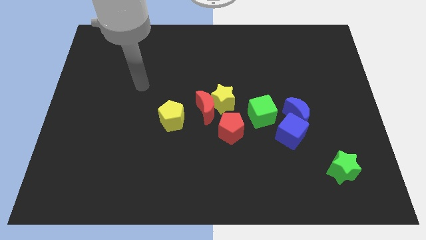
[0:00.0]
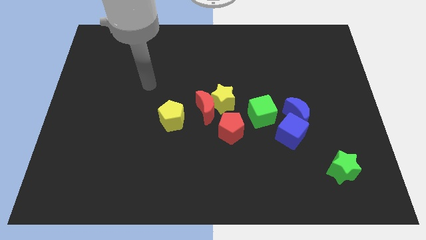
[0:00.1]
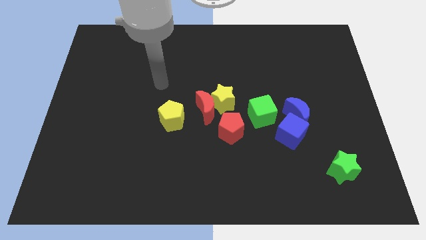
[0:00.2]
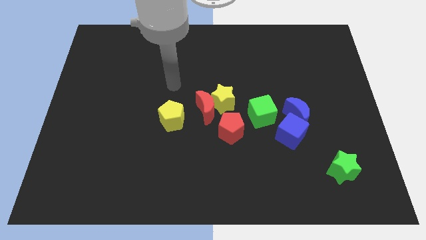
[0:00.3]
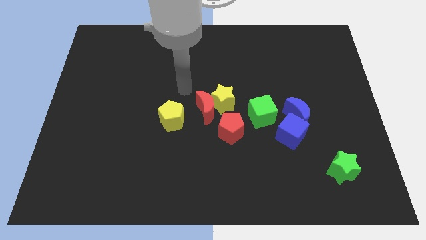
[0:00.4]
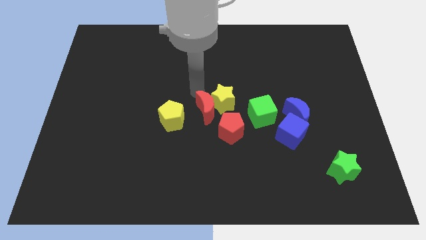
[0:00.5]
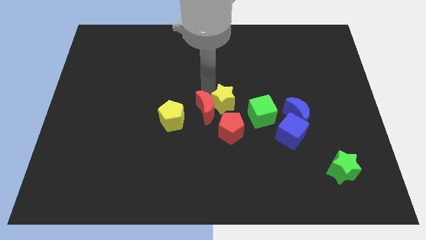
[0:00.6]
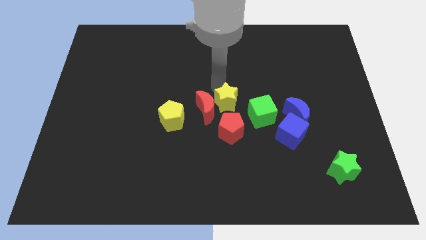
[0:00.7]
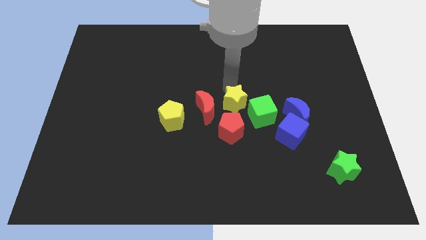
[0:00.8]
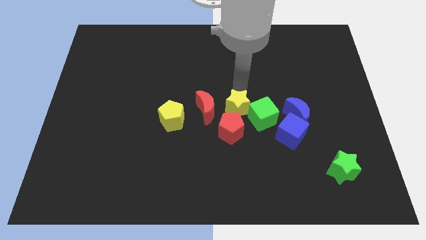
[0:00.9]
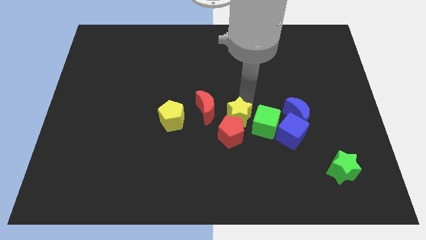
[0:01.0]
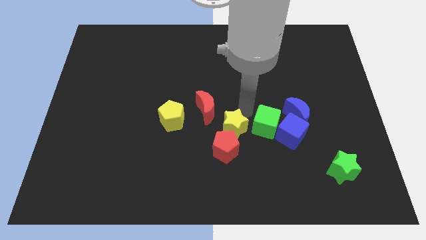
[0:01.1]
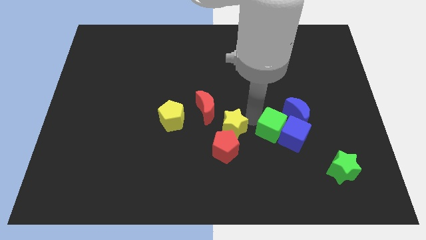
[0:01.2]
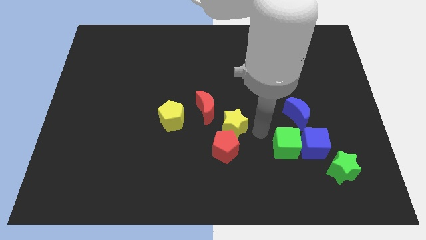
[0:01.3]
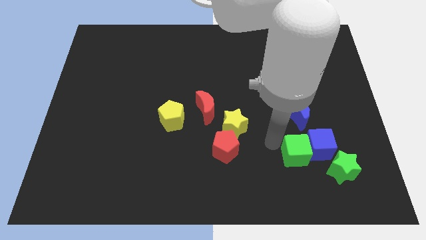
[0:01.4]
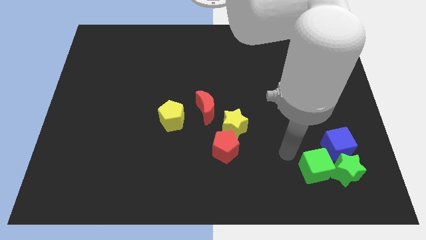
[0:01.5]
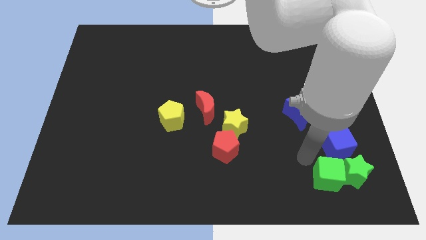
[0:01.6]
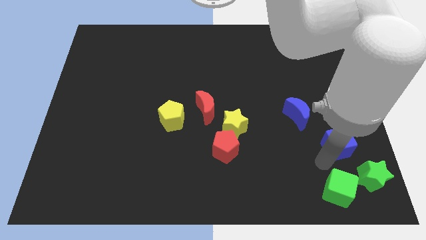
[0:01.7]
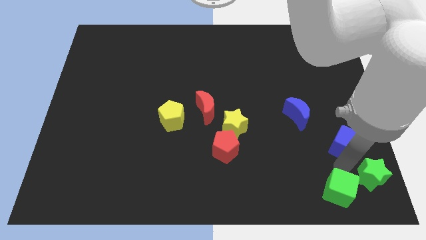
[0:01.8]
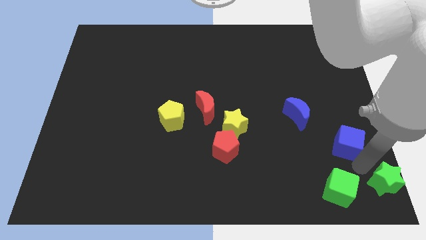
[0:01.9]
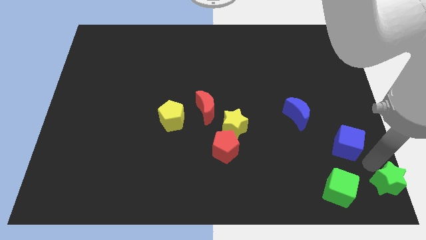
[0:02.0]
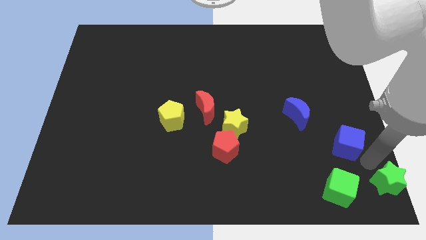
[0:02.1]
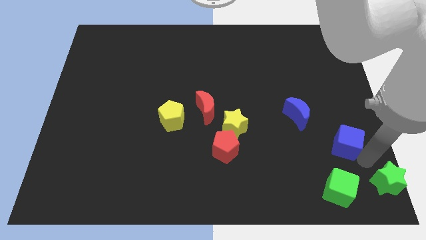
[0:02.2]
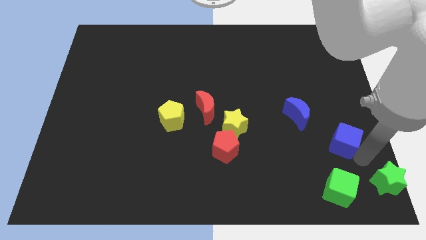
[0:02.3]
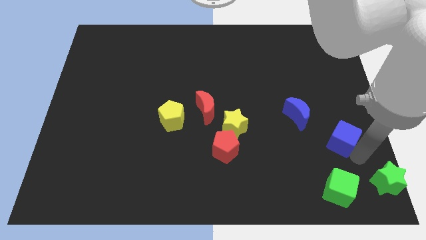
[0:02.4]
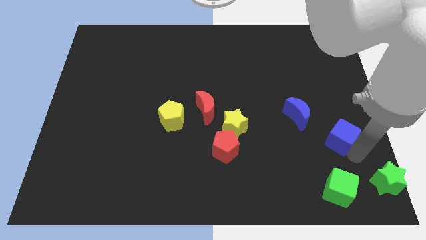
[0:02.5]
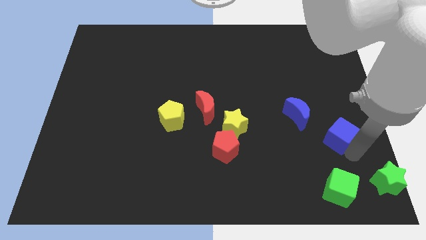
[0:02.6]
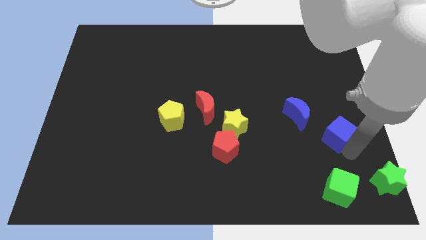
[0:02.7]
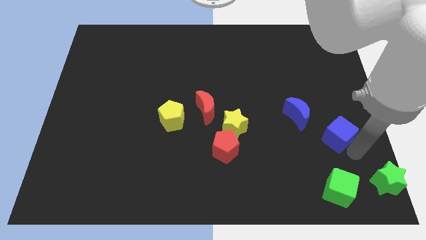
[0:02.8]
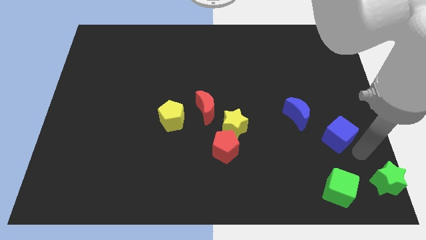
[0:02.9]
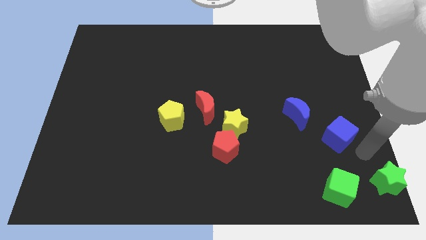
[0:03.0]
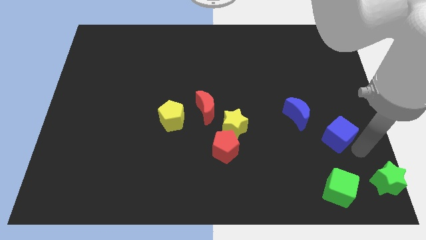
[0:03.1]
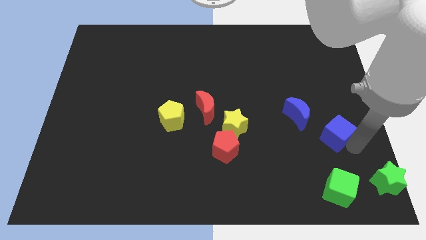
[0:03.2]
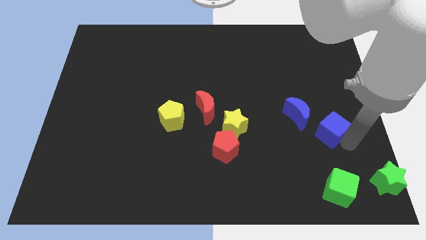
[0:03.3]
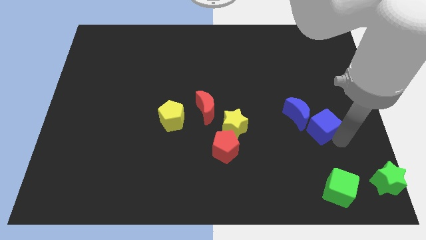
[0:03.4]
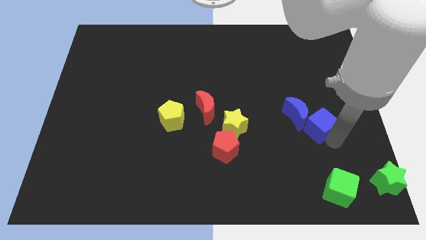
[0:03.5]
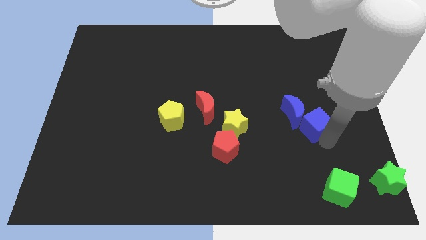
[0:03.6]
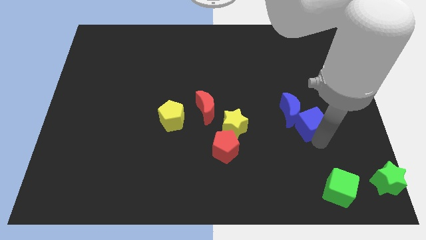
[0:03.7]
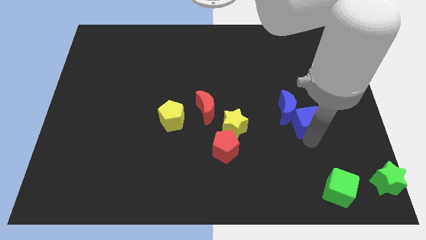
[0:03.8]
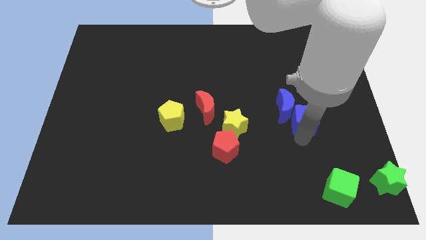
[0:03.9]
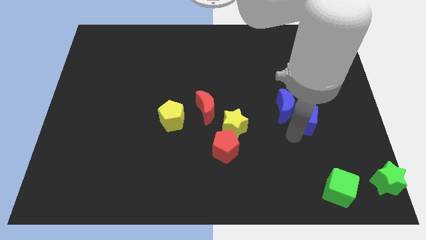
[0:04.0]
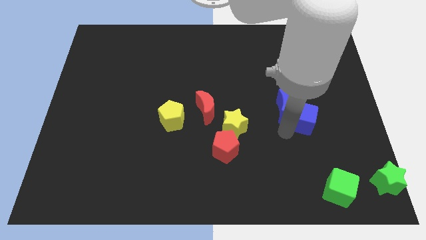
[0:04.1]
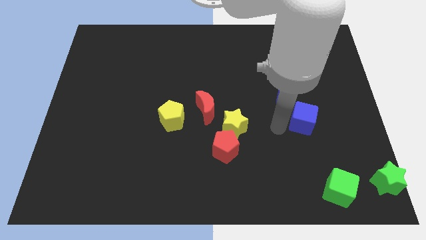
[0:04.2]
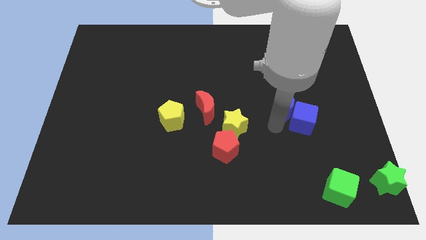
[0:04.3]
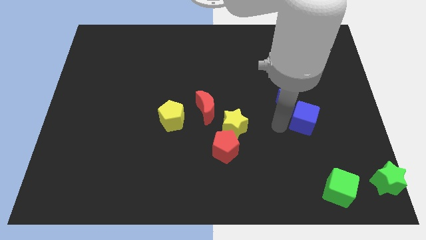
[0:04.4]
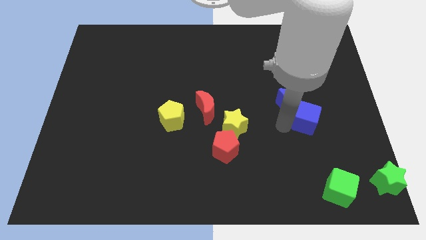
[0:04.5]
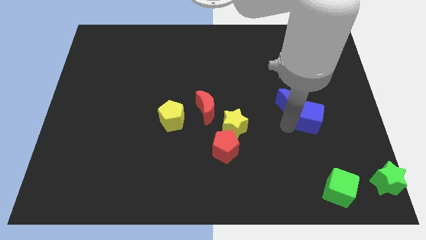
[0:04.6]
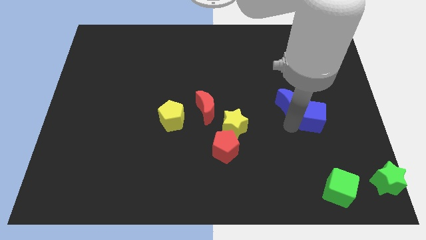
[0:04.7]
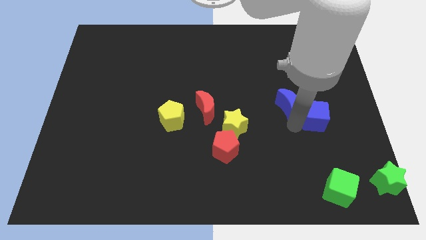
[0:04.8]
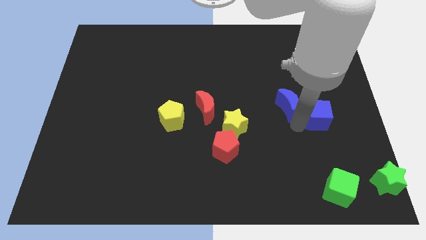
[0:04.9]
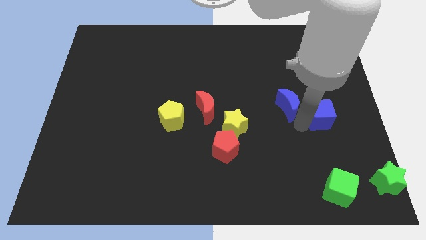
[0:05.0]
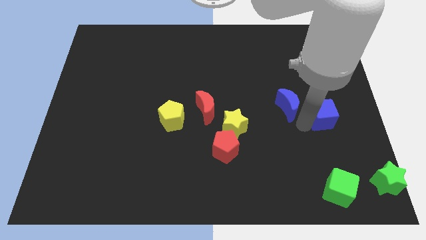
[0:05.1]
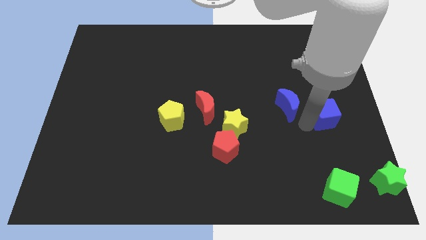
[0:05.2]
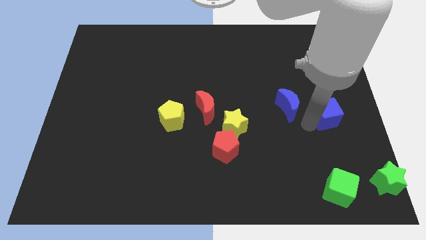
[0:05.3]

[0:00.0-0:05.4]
slide the blue cube to the right side
